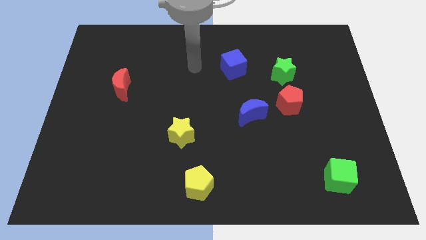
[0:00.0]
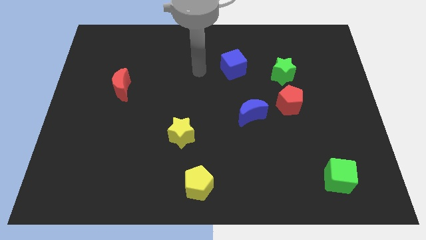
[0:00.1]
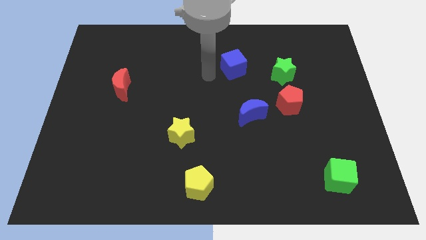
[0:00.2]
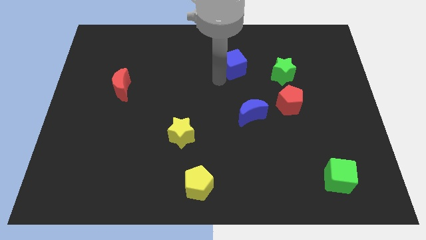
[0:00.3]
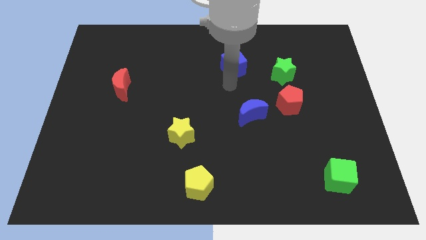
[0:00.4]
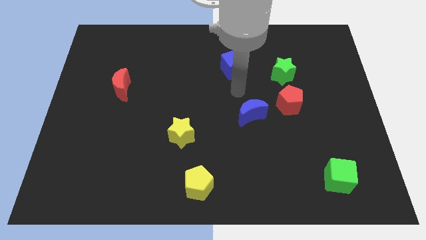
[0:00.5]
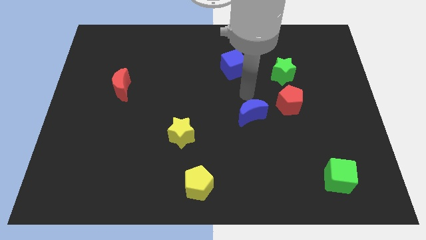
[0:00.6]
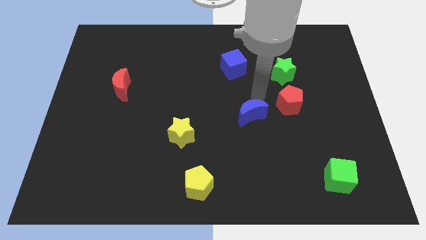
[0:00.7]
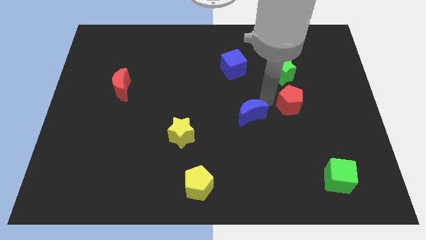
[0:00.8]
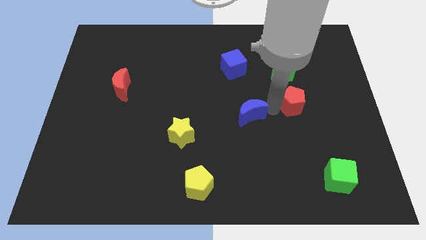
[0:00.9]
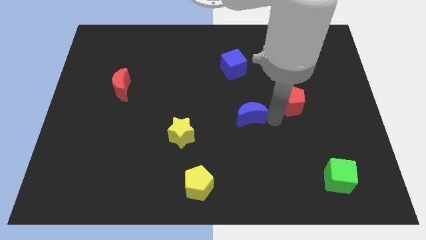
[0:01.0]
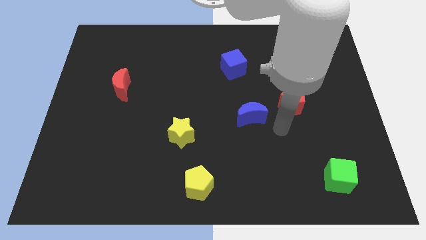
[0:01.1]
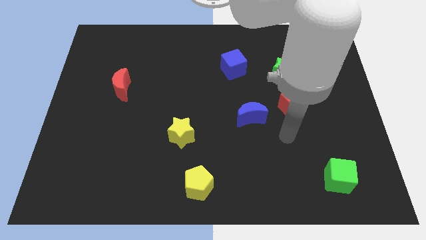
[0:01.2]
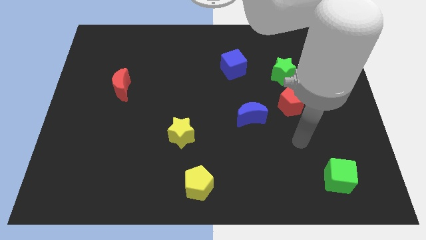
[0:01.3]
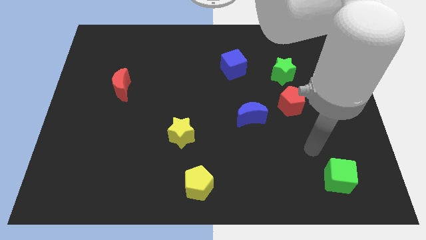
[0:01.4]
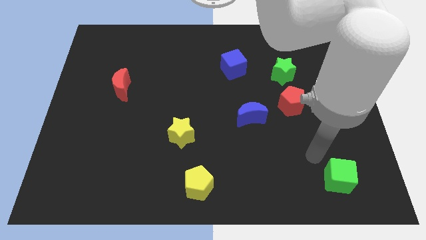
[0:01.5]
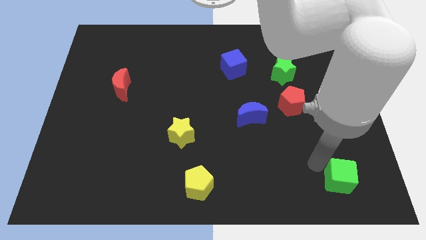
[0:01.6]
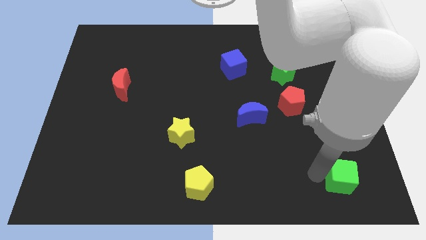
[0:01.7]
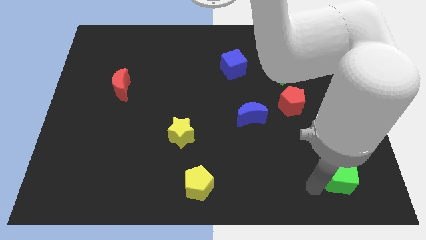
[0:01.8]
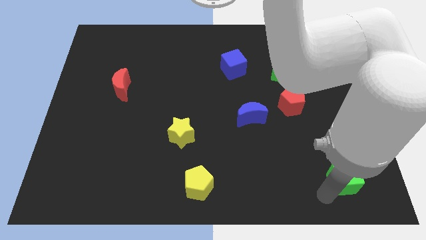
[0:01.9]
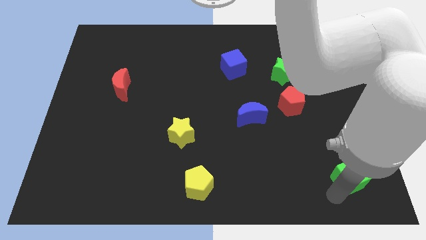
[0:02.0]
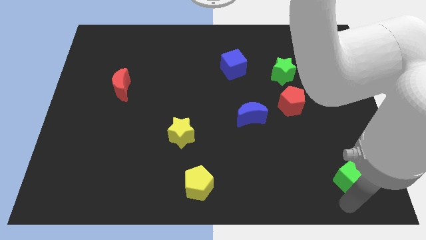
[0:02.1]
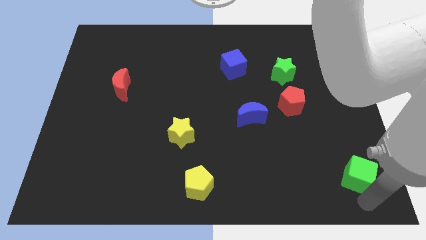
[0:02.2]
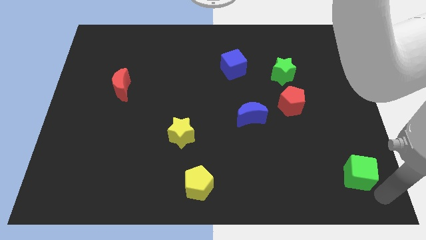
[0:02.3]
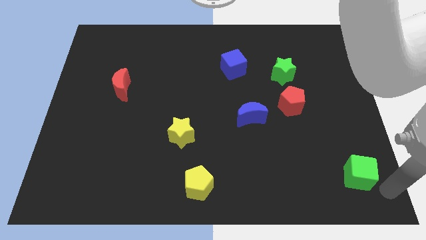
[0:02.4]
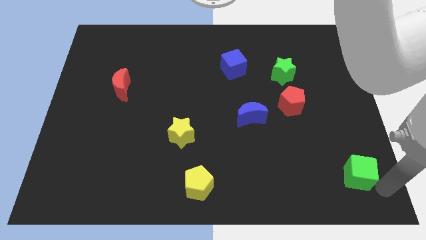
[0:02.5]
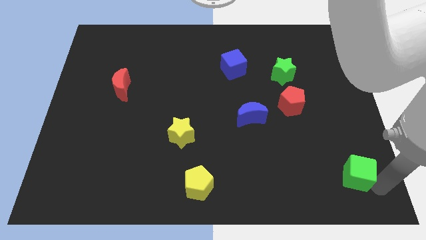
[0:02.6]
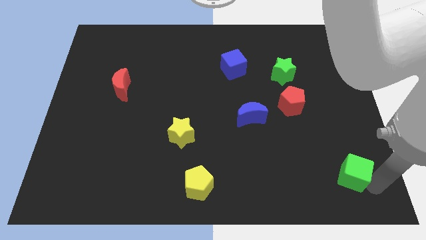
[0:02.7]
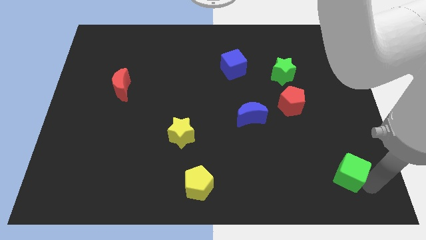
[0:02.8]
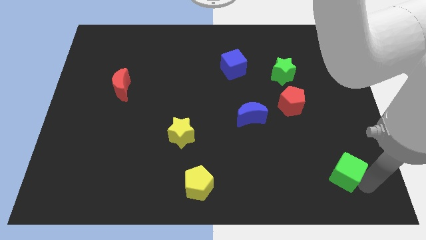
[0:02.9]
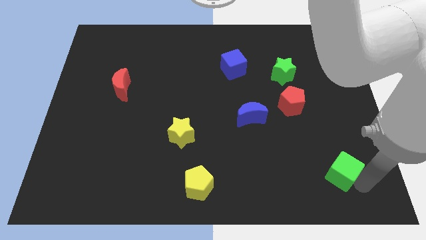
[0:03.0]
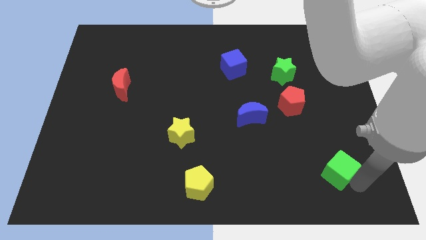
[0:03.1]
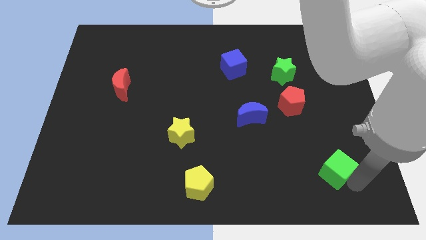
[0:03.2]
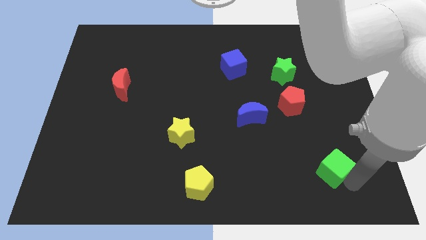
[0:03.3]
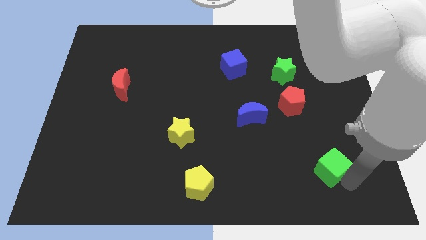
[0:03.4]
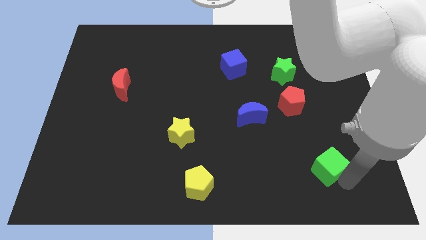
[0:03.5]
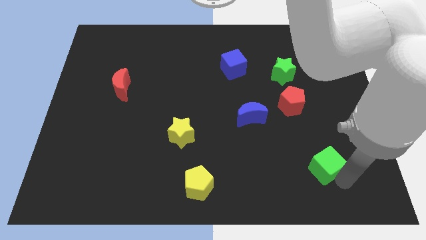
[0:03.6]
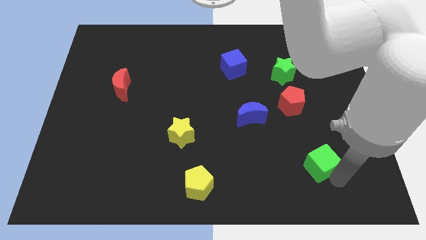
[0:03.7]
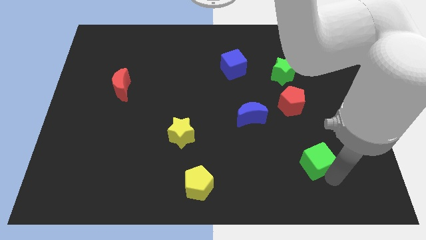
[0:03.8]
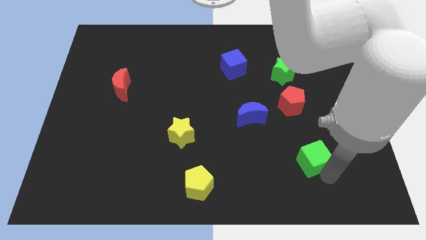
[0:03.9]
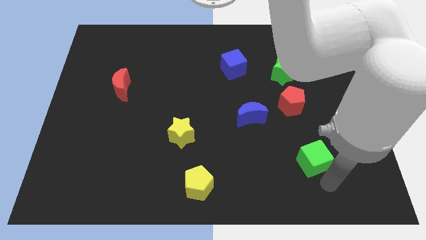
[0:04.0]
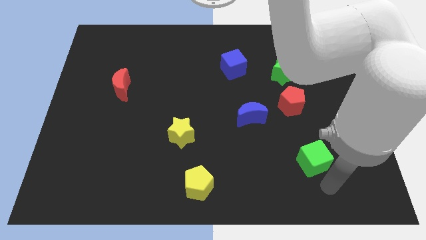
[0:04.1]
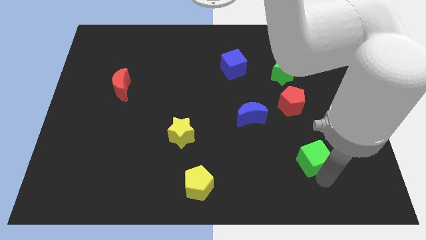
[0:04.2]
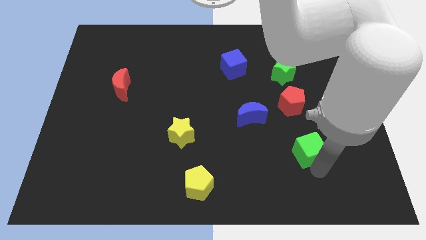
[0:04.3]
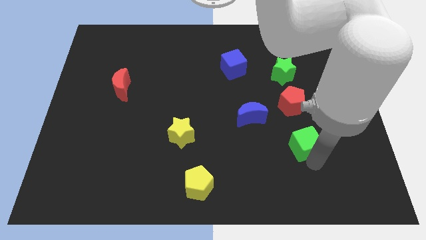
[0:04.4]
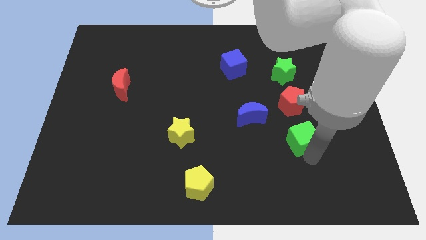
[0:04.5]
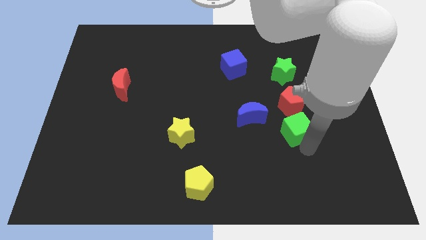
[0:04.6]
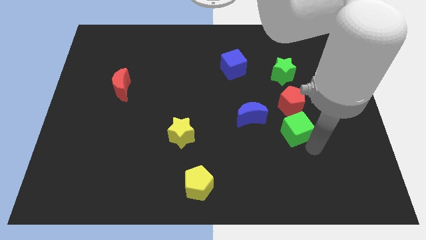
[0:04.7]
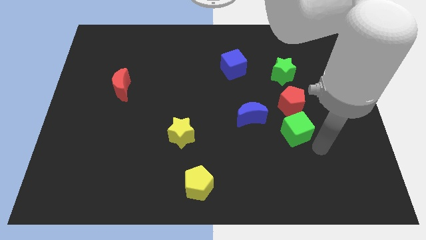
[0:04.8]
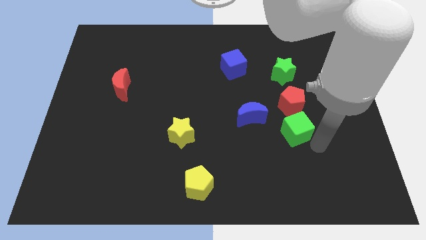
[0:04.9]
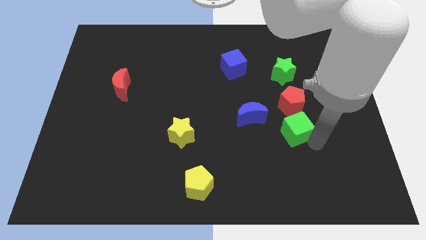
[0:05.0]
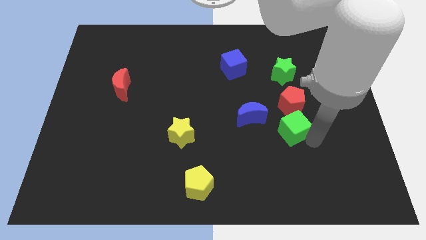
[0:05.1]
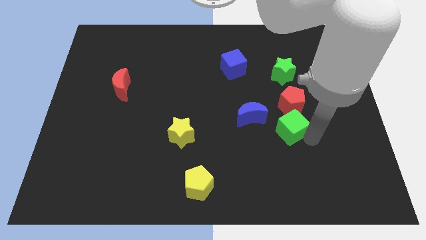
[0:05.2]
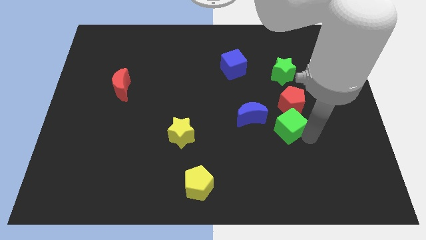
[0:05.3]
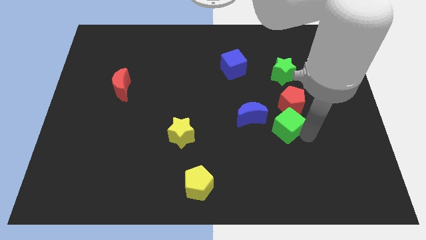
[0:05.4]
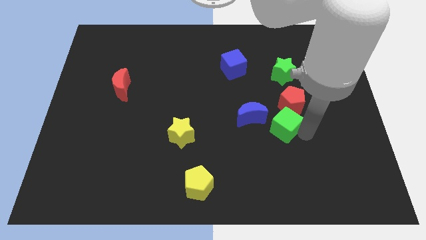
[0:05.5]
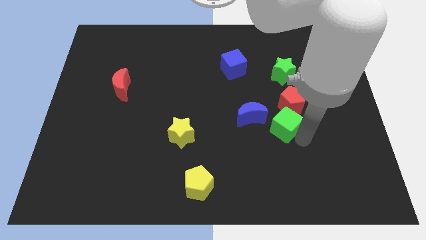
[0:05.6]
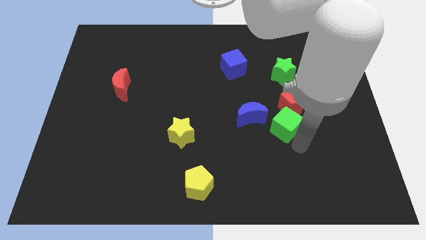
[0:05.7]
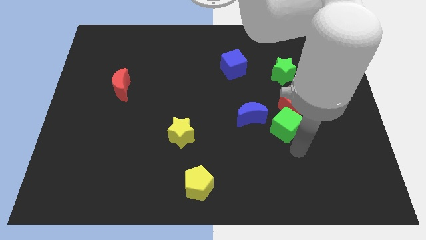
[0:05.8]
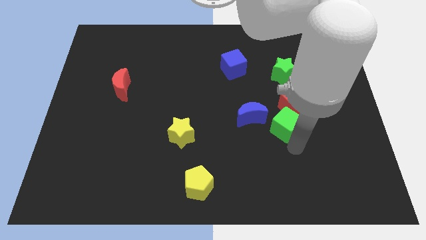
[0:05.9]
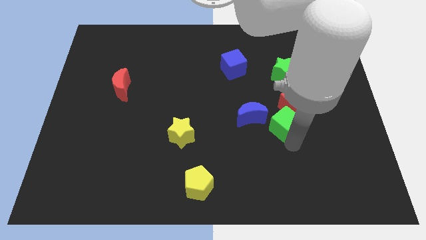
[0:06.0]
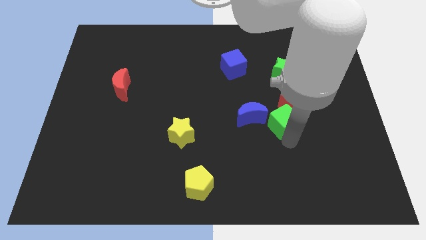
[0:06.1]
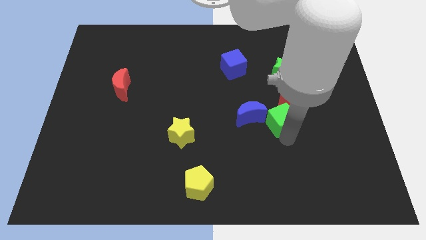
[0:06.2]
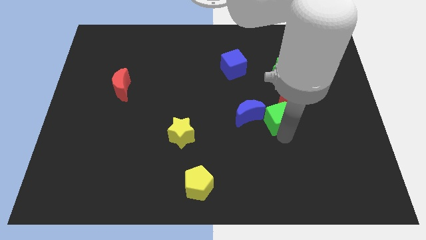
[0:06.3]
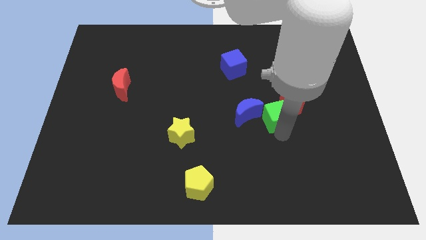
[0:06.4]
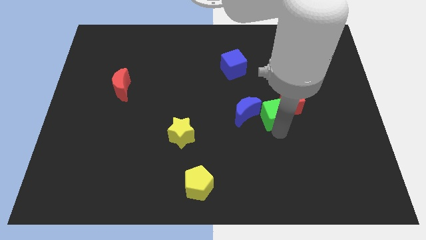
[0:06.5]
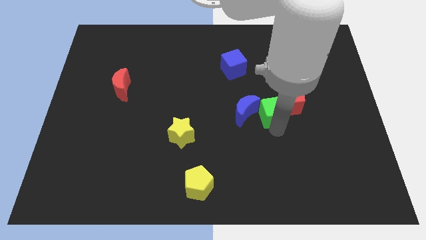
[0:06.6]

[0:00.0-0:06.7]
move the green cube diagonally up and to the right of the blue moon

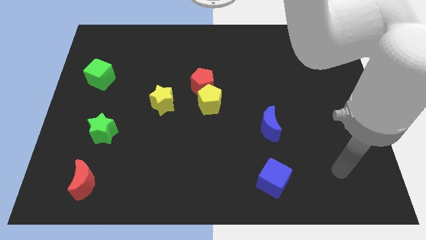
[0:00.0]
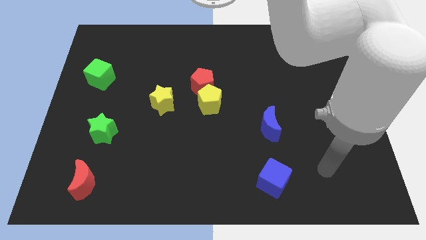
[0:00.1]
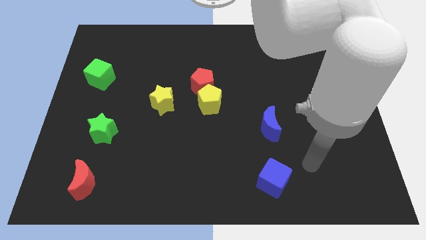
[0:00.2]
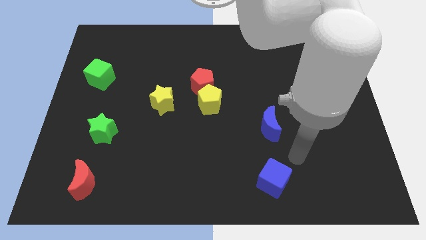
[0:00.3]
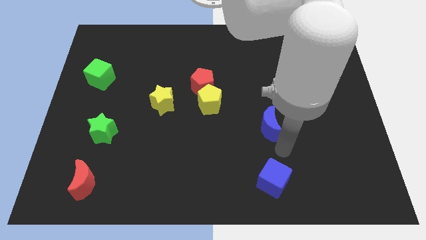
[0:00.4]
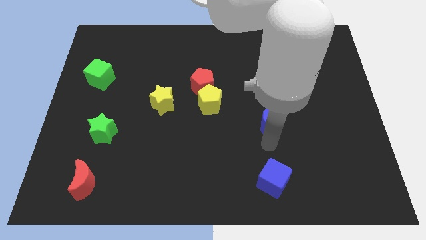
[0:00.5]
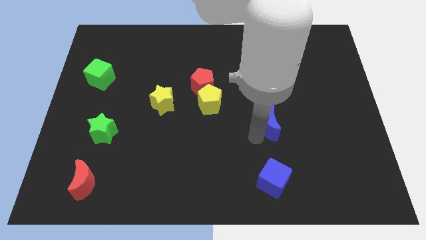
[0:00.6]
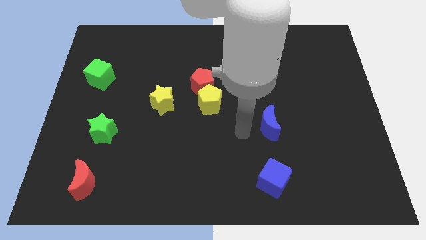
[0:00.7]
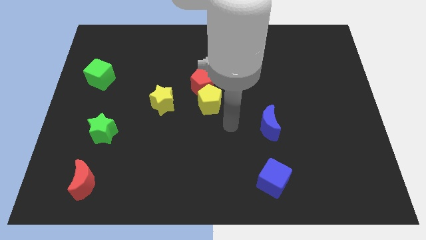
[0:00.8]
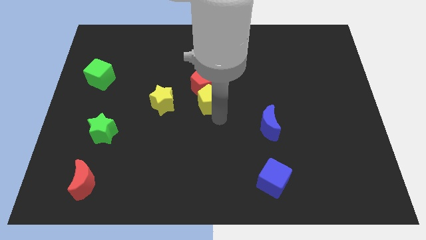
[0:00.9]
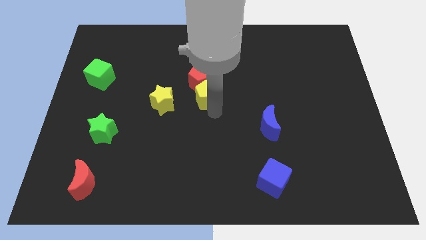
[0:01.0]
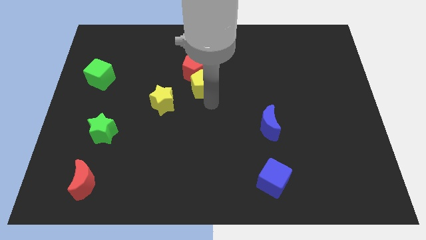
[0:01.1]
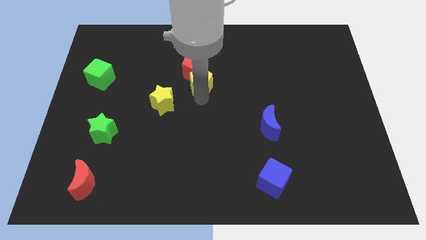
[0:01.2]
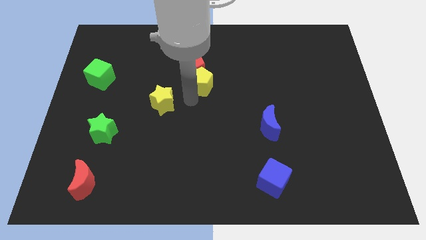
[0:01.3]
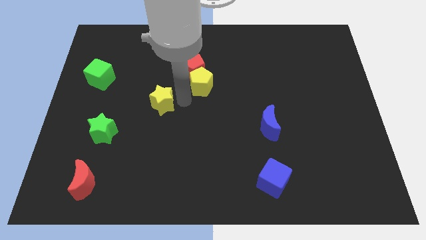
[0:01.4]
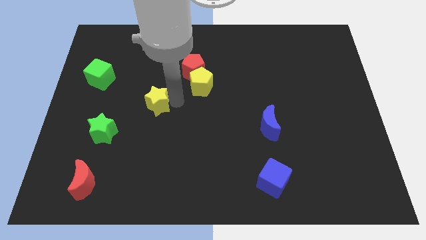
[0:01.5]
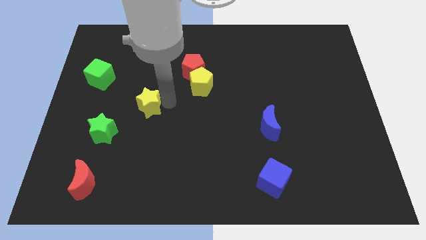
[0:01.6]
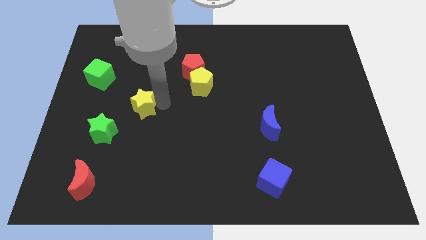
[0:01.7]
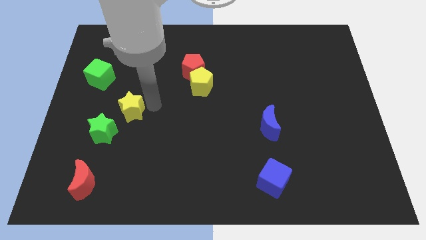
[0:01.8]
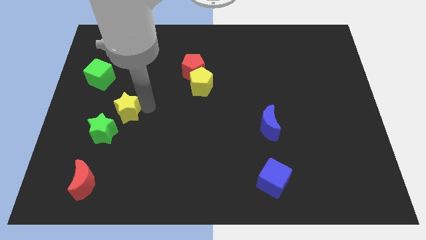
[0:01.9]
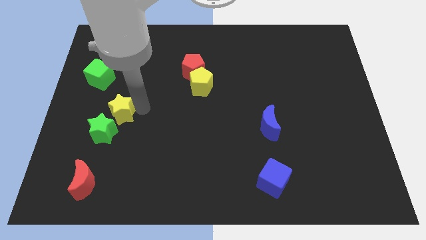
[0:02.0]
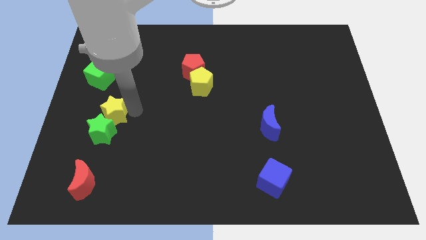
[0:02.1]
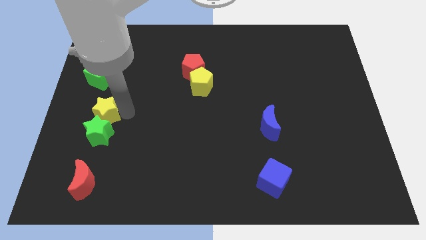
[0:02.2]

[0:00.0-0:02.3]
push the yellow star to the bottom of the green cube
